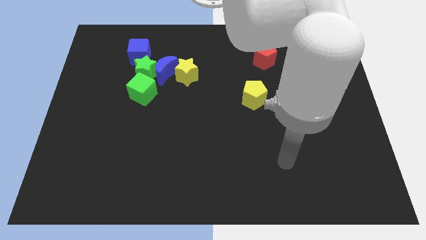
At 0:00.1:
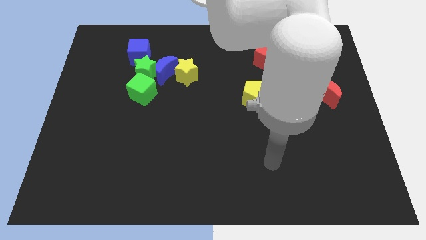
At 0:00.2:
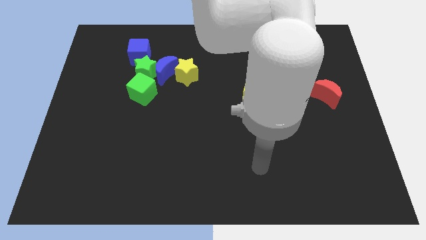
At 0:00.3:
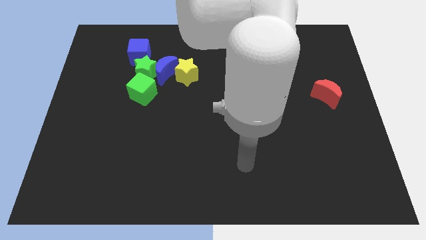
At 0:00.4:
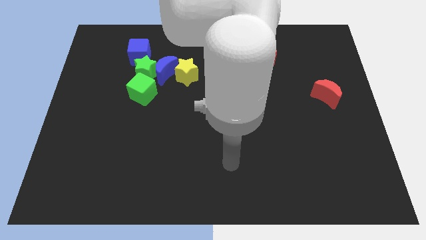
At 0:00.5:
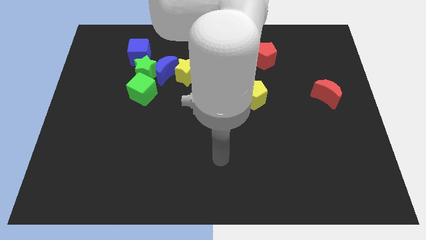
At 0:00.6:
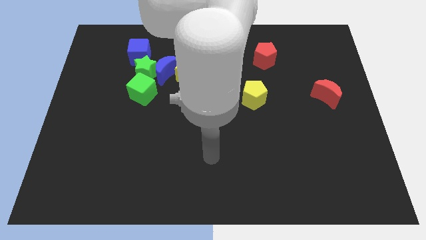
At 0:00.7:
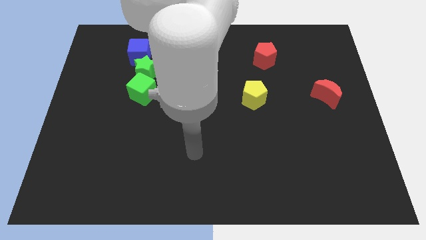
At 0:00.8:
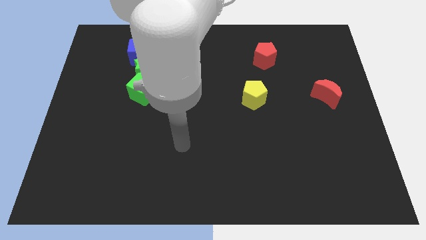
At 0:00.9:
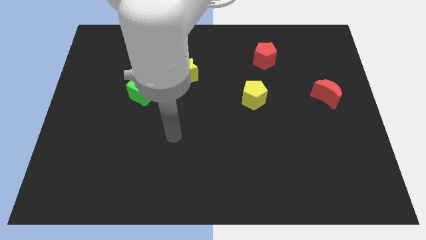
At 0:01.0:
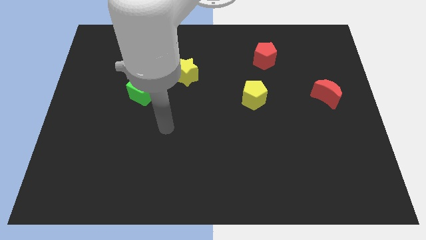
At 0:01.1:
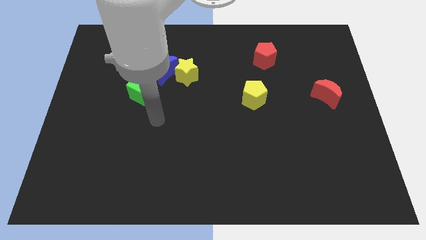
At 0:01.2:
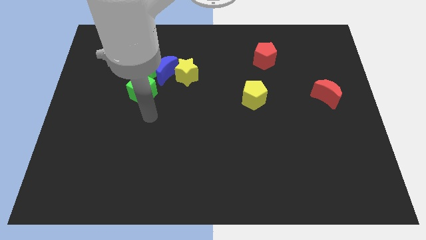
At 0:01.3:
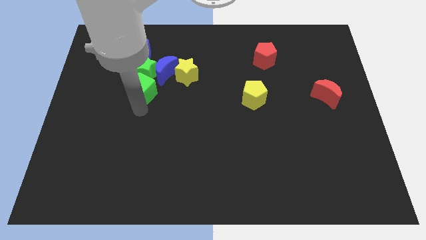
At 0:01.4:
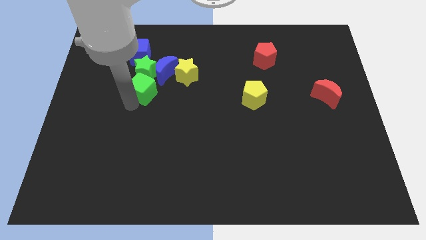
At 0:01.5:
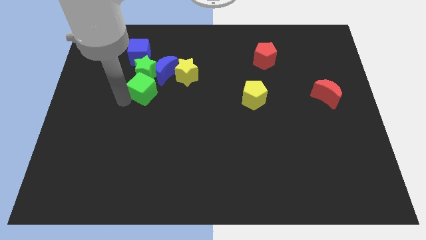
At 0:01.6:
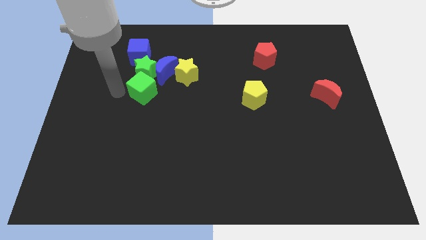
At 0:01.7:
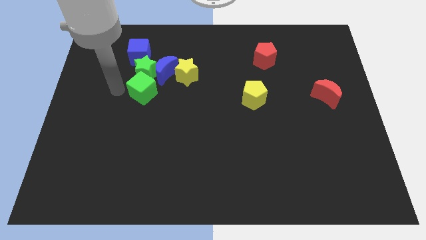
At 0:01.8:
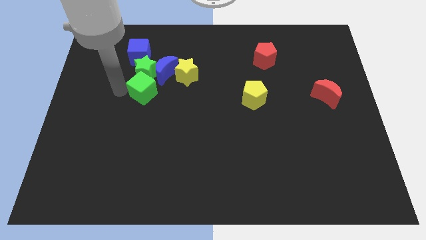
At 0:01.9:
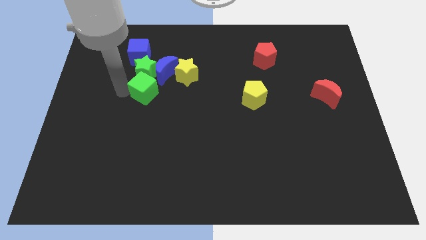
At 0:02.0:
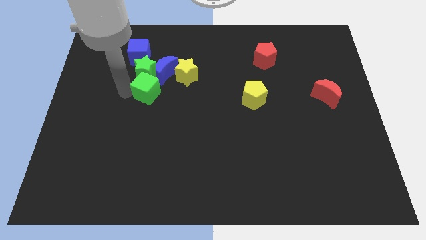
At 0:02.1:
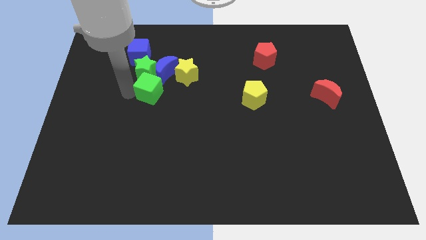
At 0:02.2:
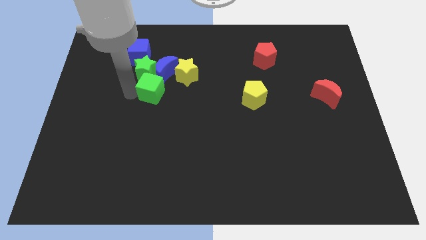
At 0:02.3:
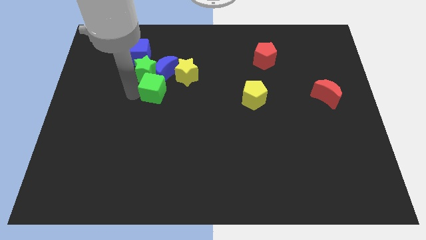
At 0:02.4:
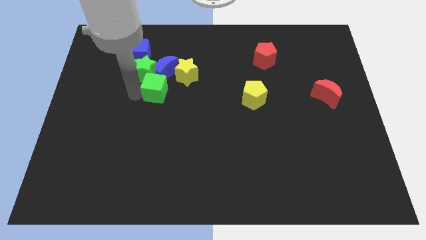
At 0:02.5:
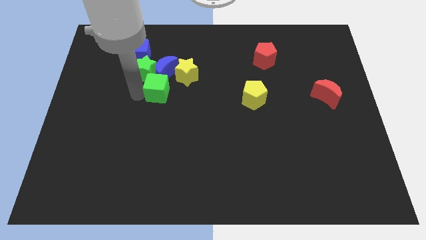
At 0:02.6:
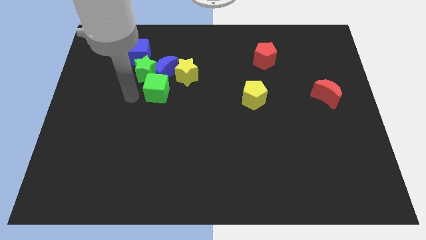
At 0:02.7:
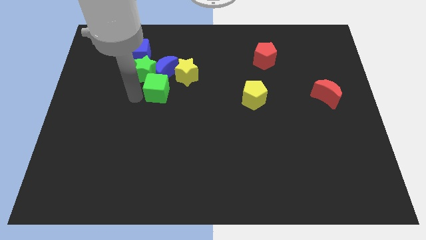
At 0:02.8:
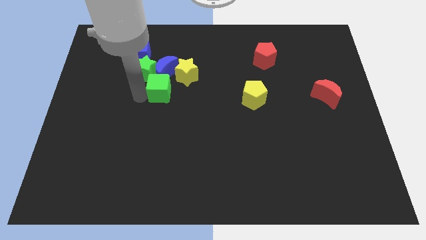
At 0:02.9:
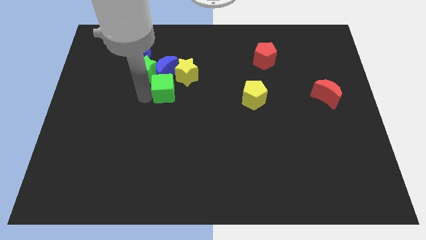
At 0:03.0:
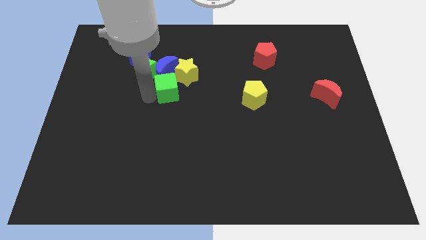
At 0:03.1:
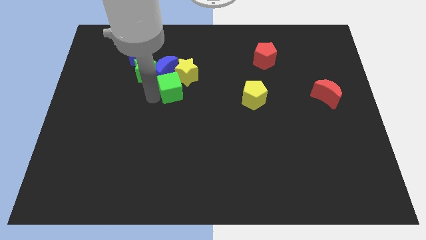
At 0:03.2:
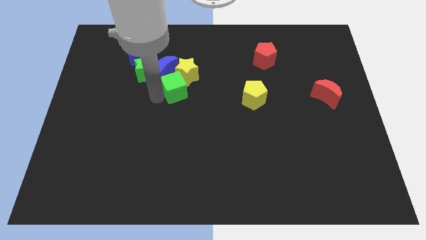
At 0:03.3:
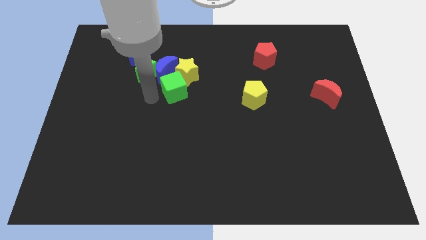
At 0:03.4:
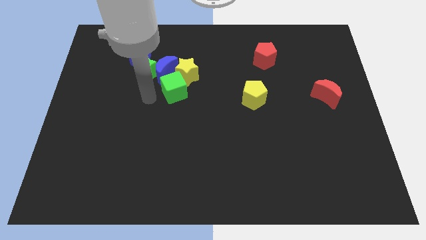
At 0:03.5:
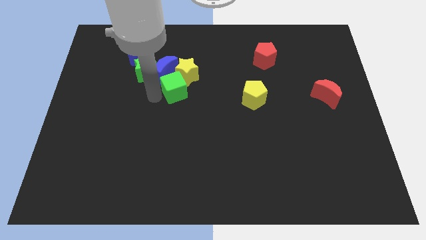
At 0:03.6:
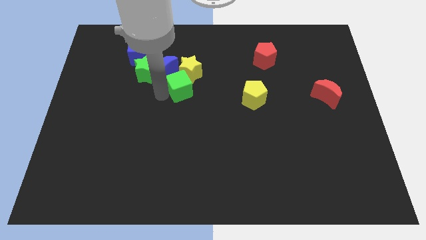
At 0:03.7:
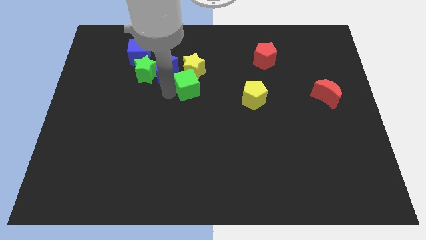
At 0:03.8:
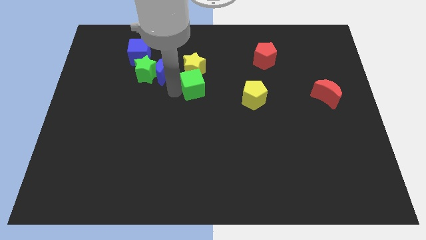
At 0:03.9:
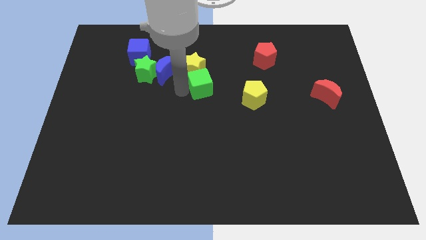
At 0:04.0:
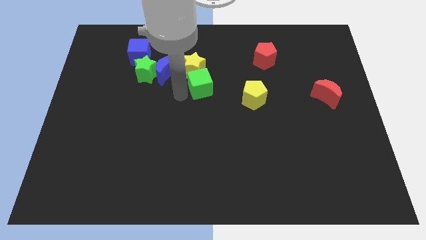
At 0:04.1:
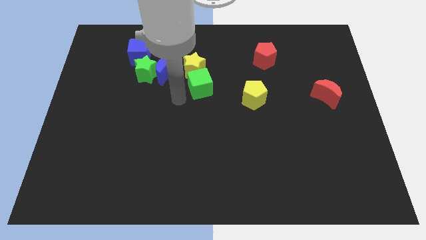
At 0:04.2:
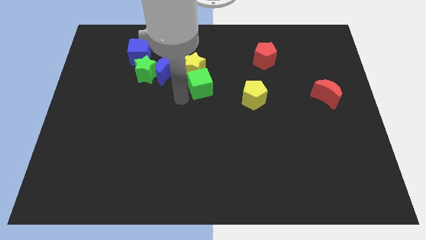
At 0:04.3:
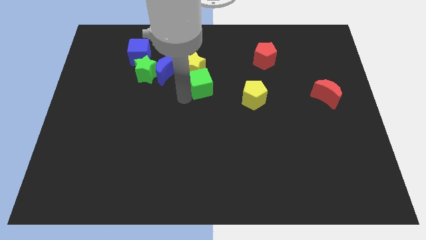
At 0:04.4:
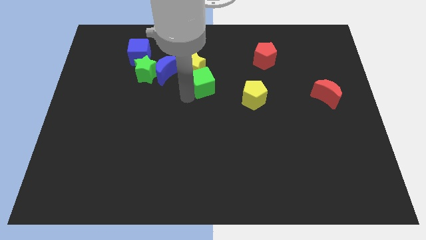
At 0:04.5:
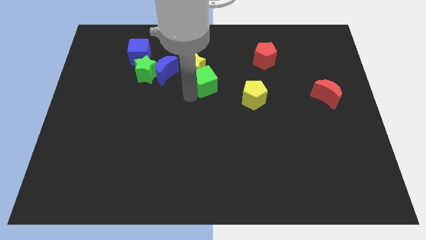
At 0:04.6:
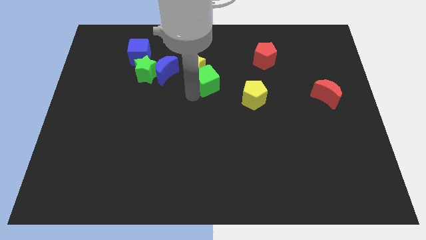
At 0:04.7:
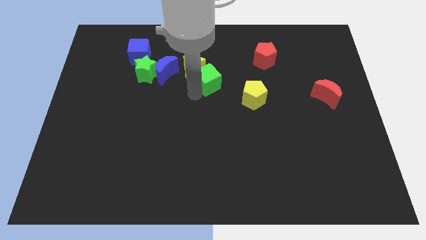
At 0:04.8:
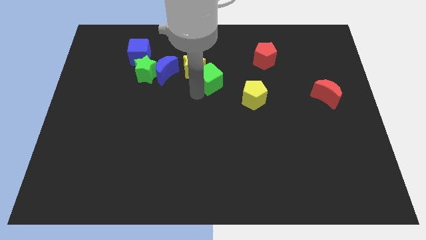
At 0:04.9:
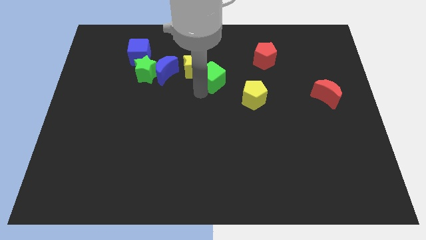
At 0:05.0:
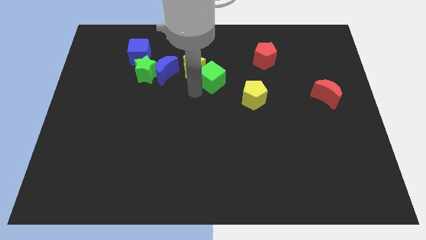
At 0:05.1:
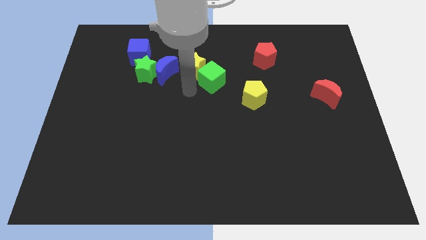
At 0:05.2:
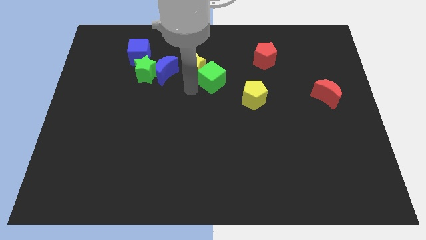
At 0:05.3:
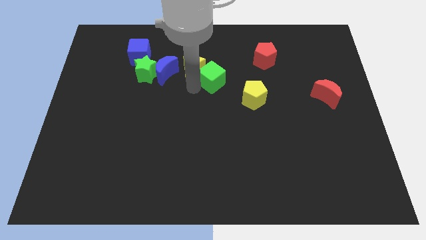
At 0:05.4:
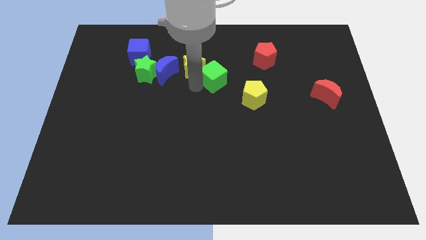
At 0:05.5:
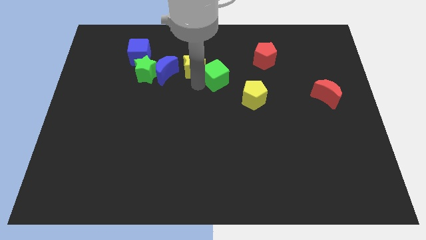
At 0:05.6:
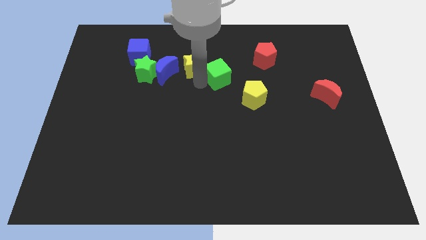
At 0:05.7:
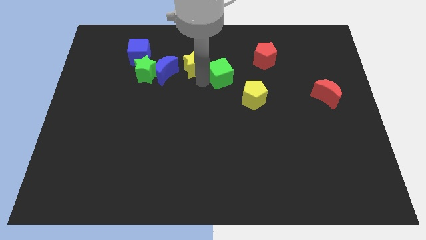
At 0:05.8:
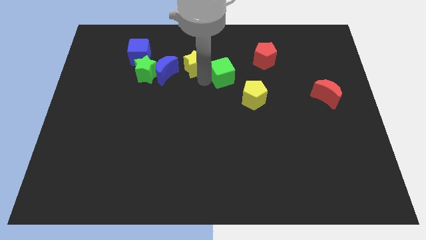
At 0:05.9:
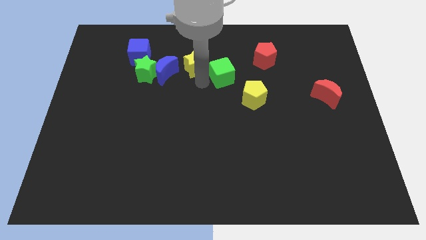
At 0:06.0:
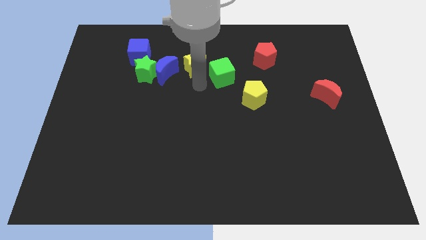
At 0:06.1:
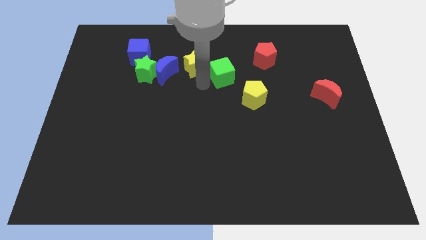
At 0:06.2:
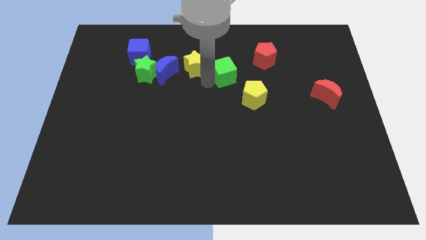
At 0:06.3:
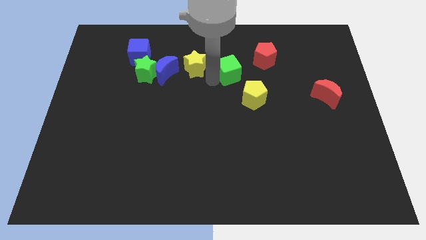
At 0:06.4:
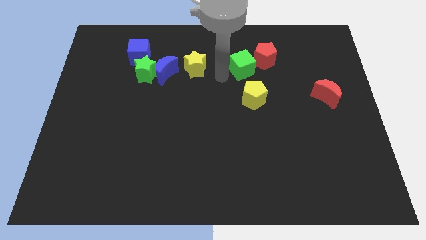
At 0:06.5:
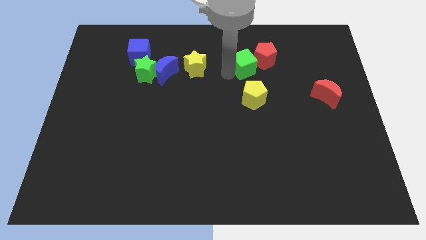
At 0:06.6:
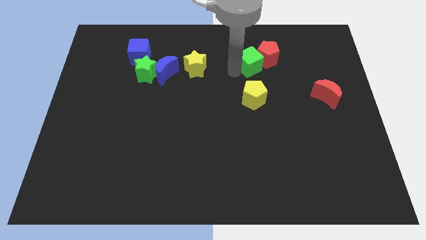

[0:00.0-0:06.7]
slide the green cube next to the red pentagon
